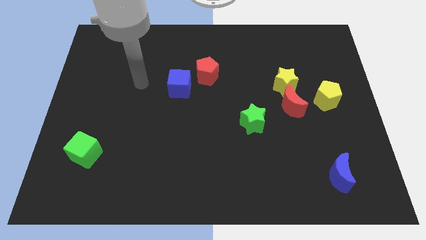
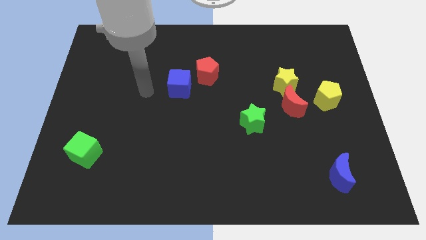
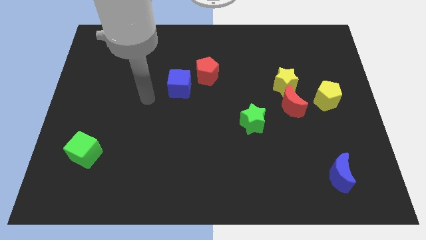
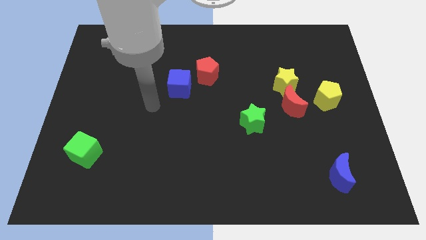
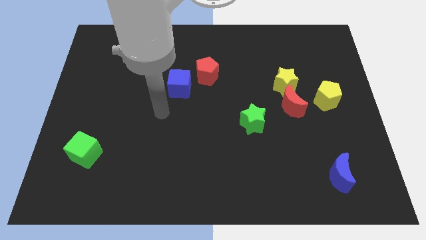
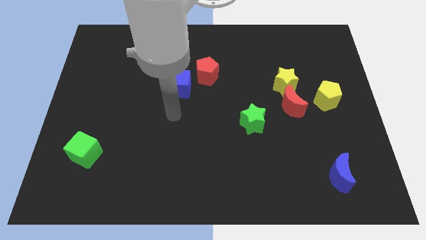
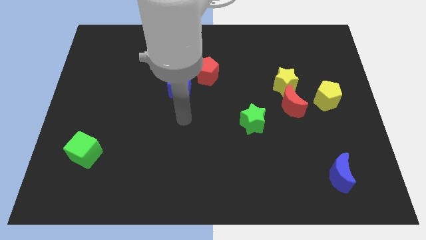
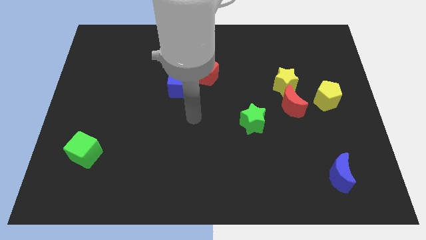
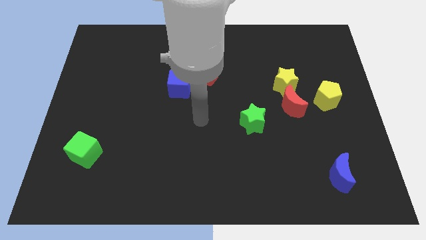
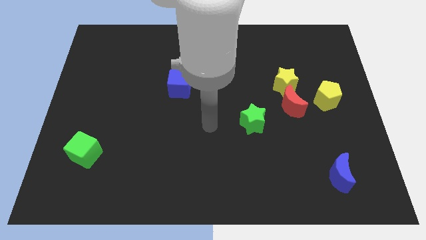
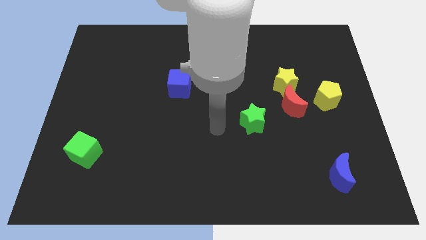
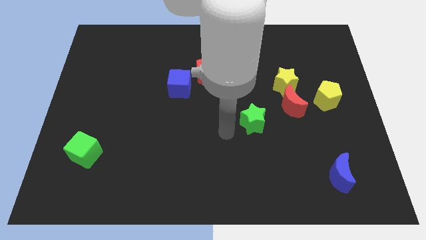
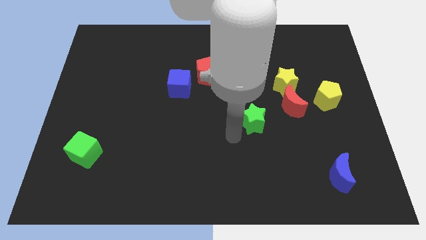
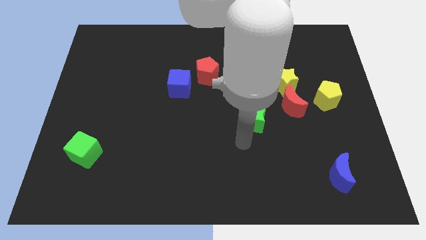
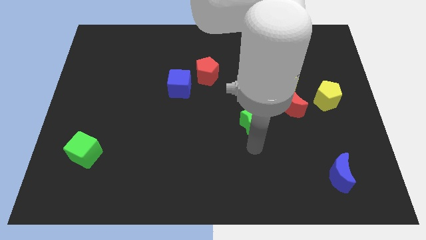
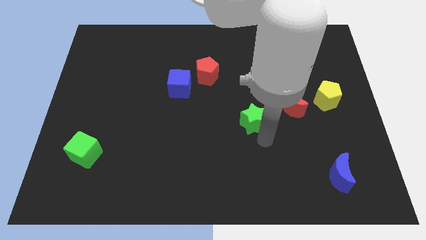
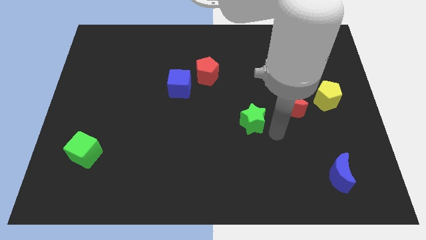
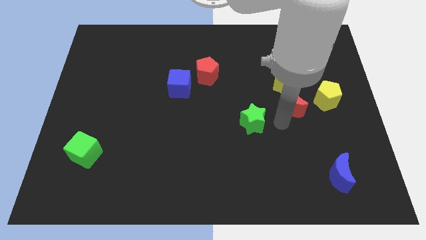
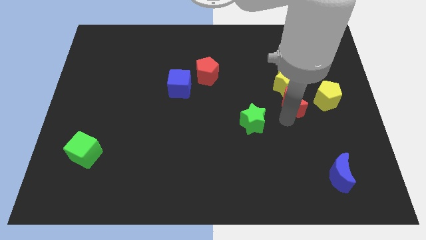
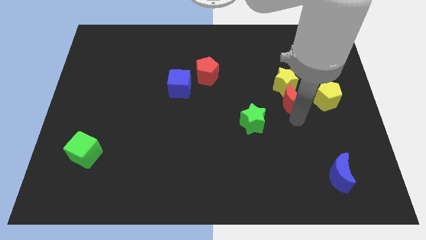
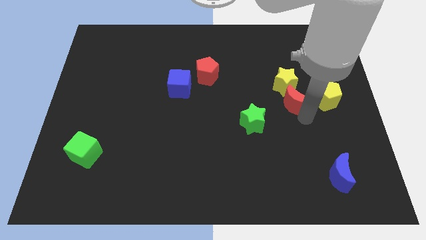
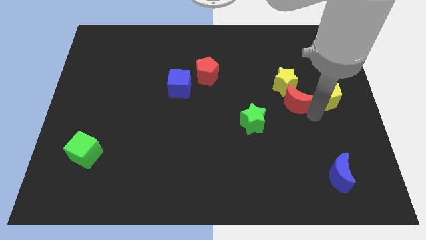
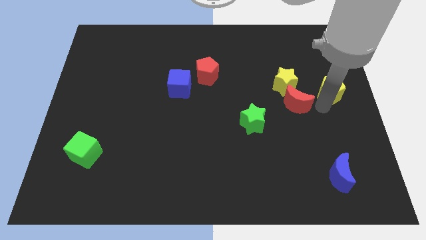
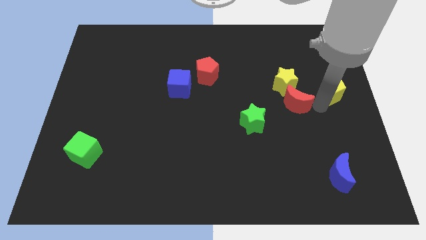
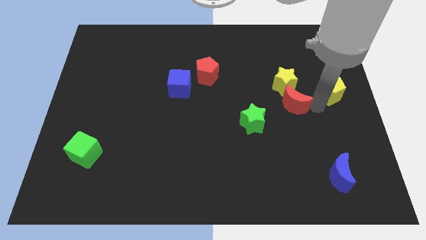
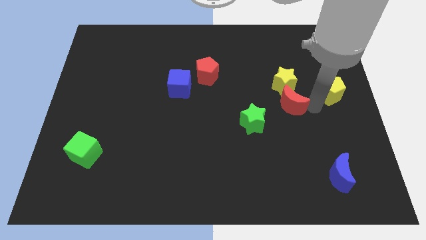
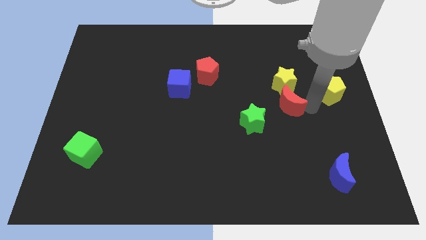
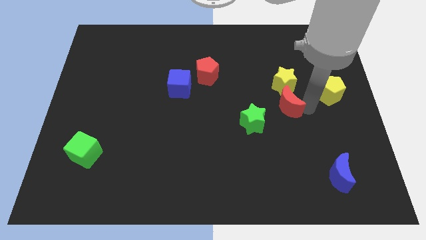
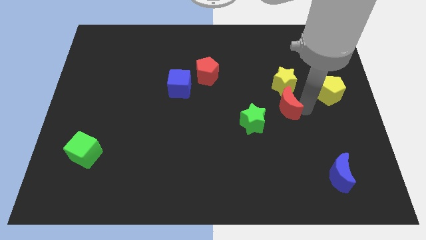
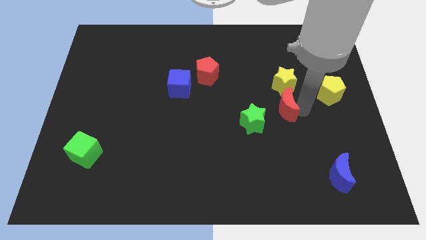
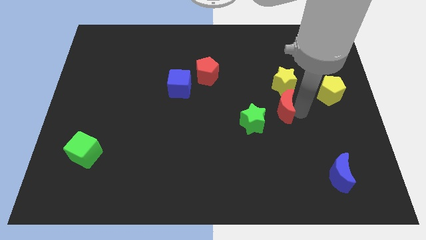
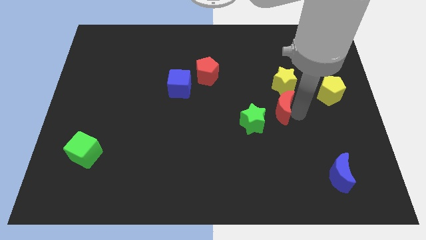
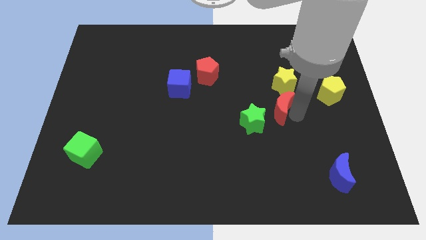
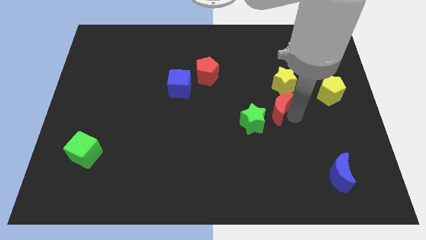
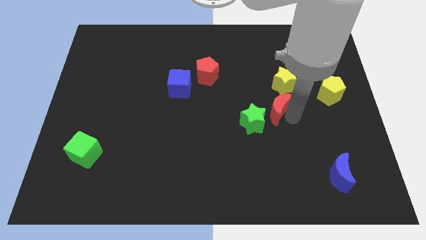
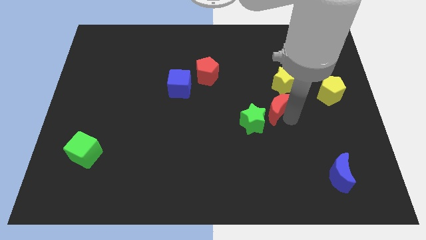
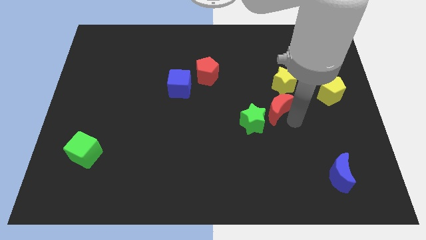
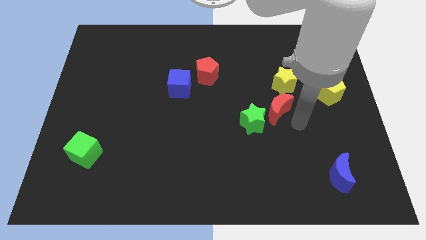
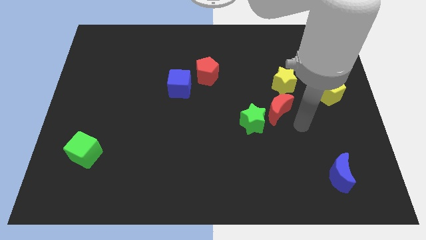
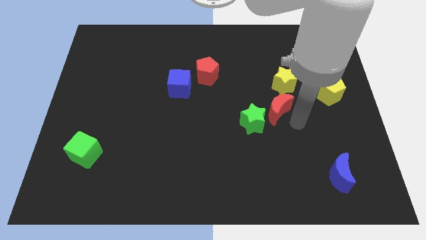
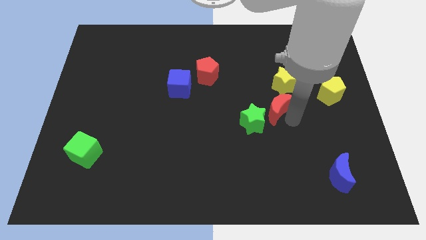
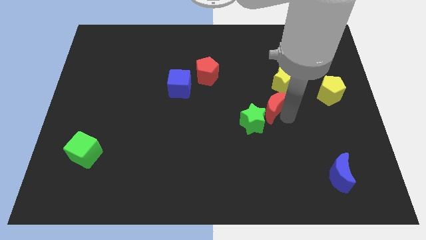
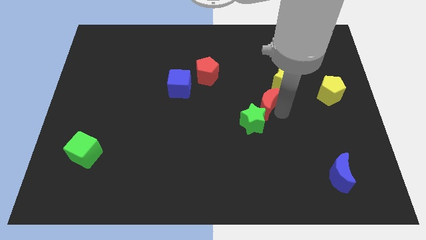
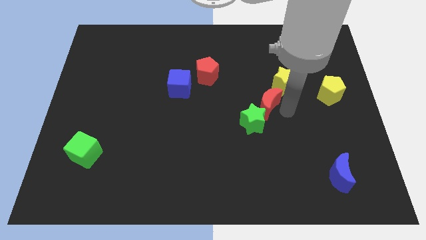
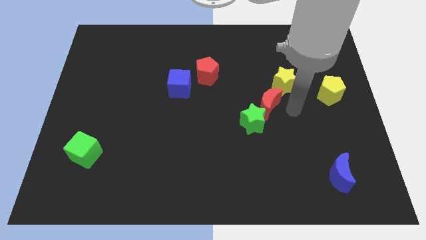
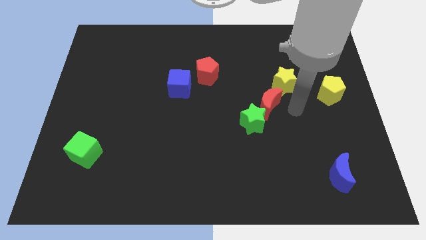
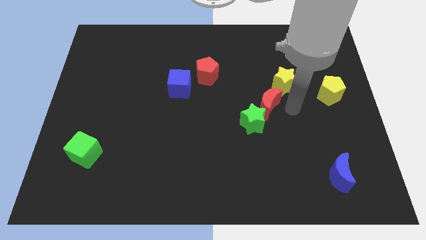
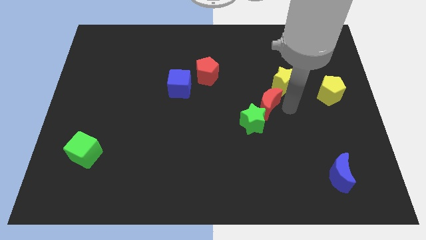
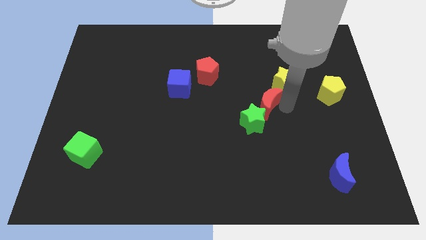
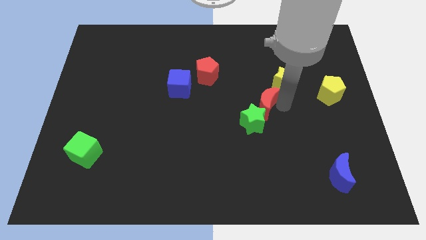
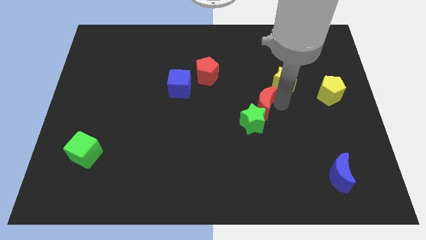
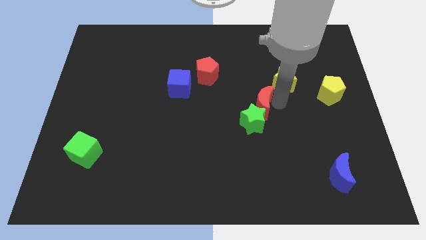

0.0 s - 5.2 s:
move the red moon a little bit left

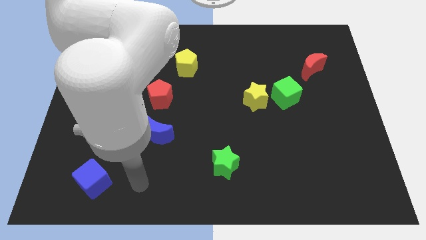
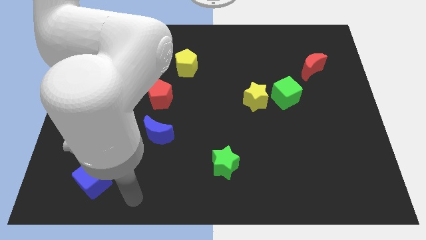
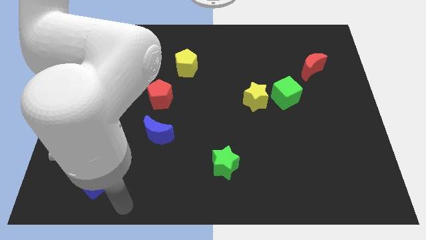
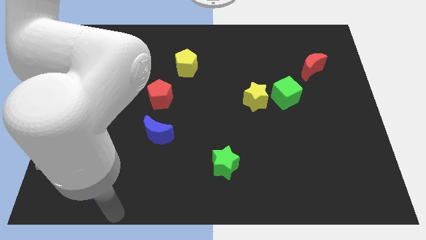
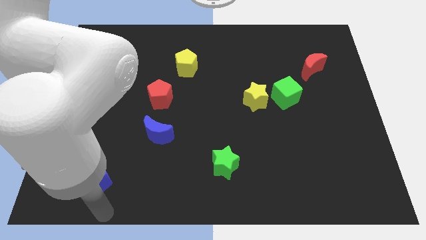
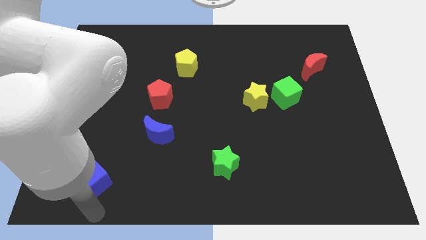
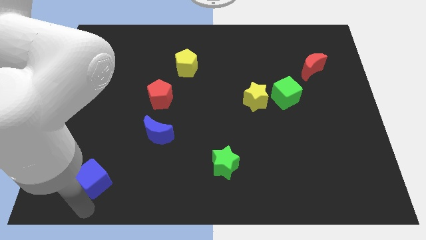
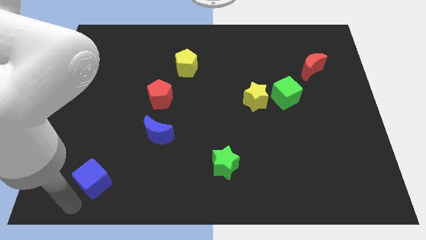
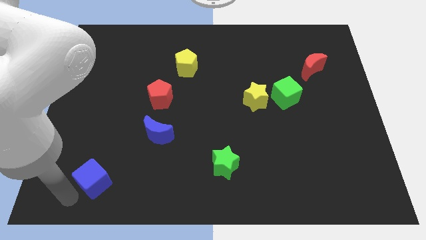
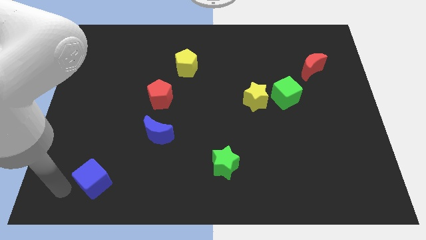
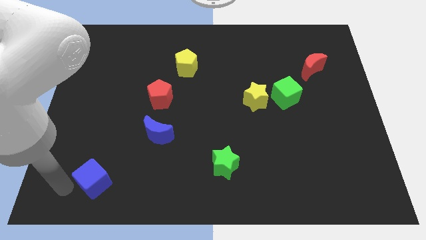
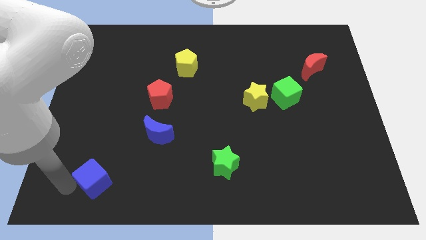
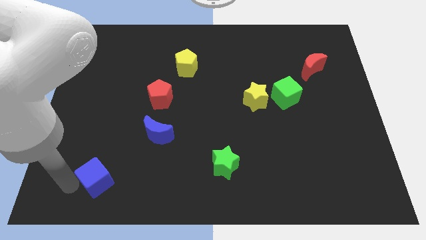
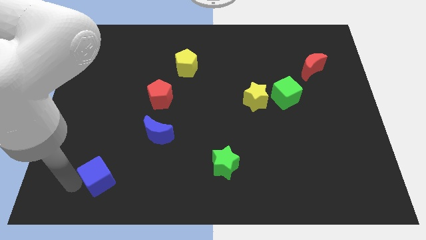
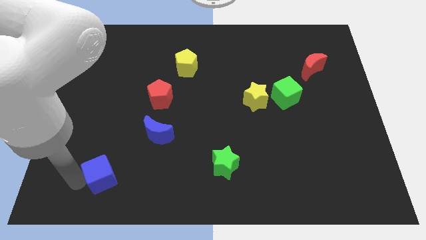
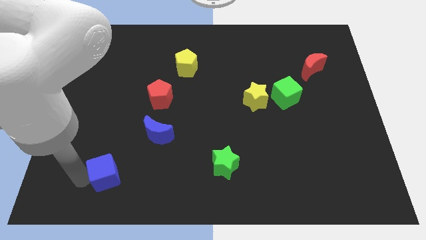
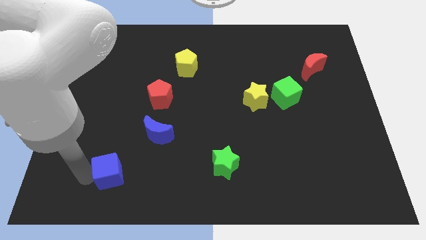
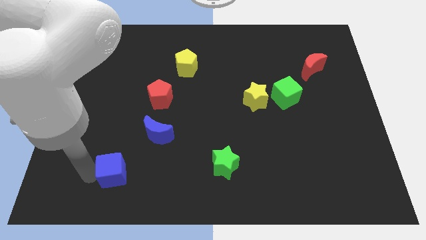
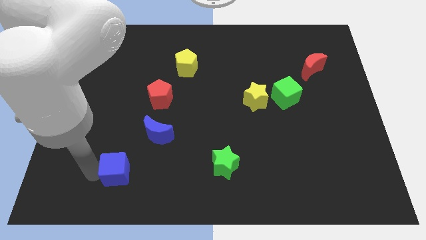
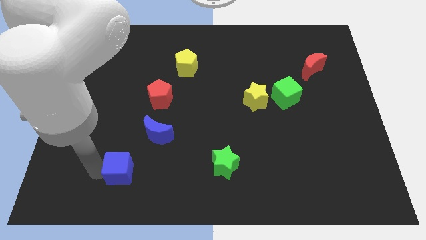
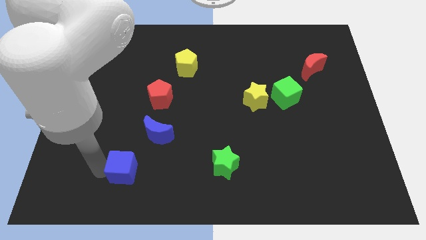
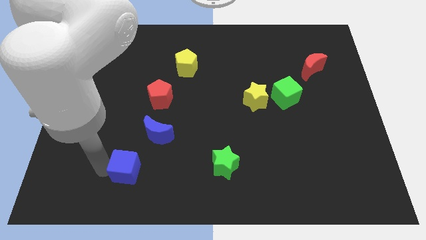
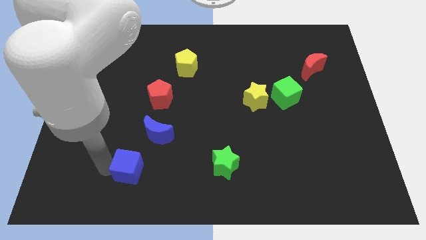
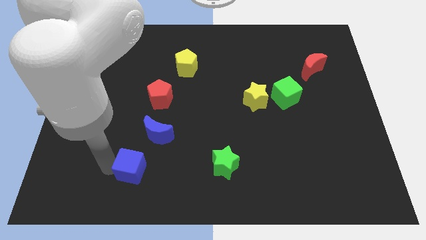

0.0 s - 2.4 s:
slightly slide the blue cube right

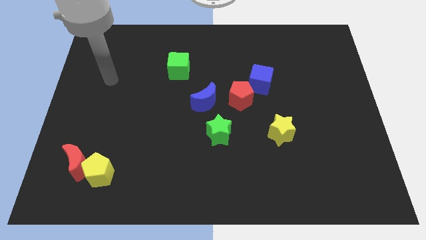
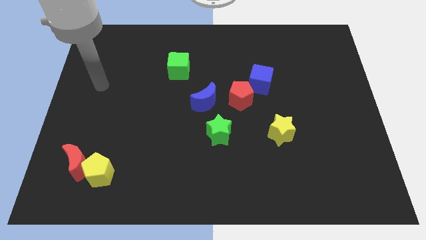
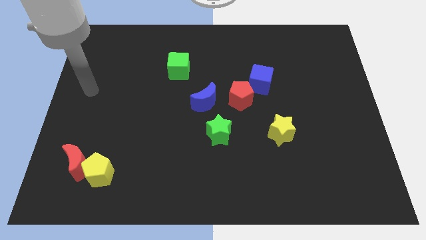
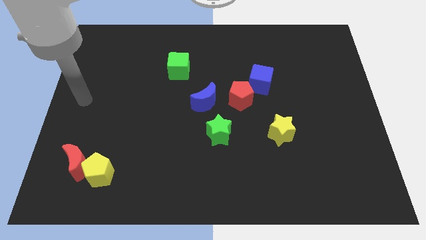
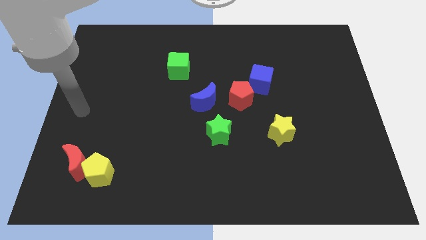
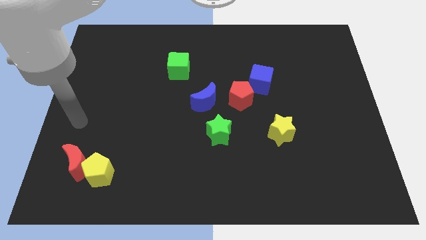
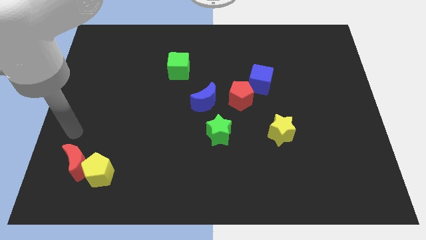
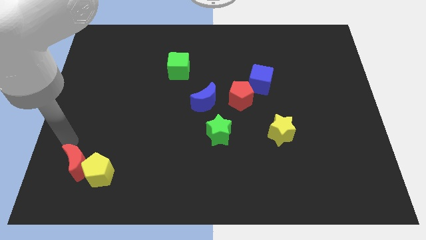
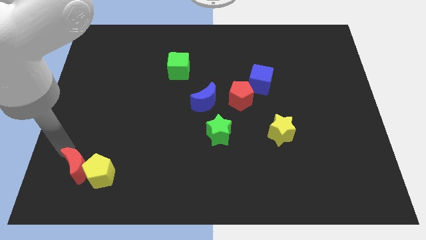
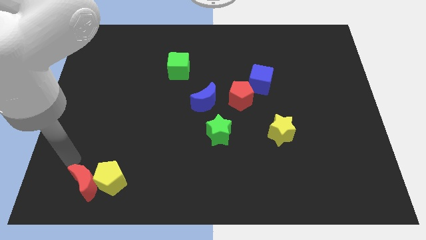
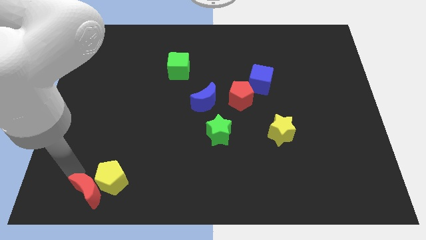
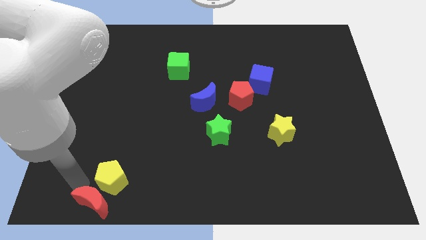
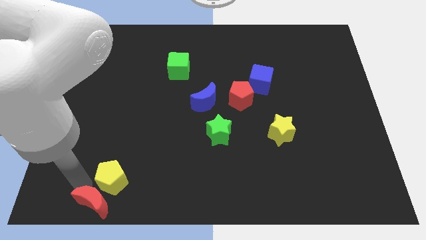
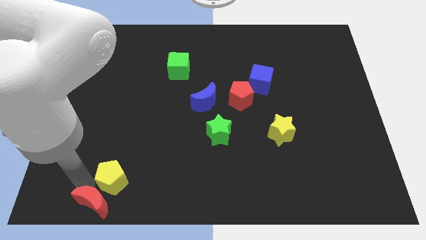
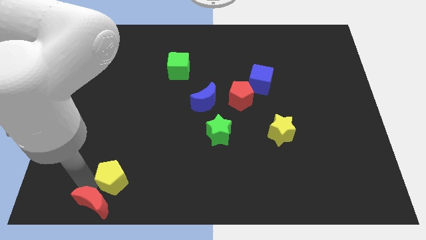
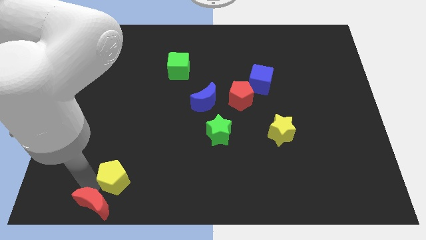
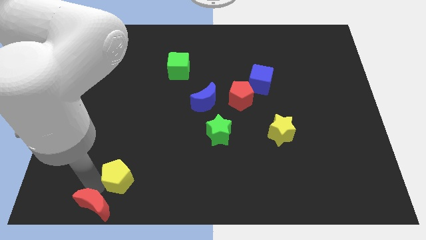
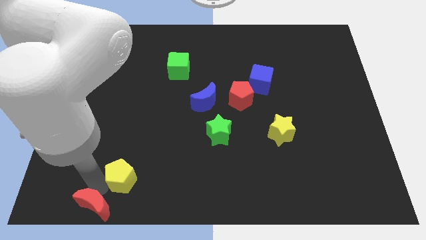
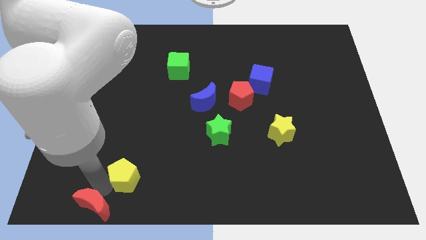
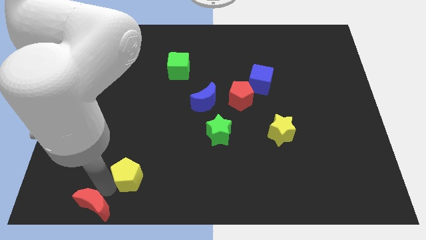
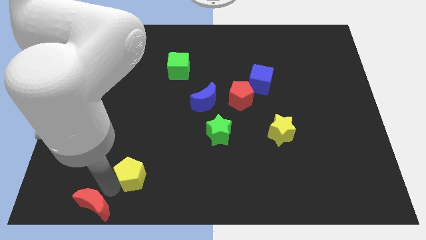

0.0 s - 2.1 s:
push the yellow pentagon a bit to the right
